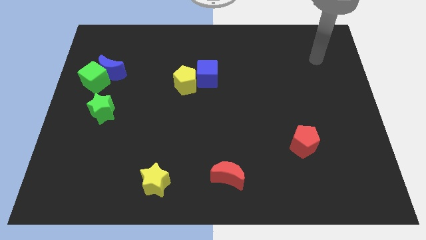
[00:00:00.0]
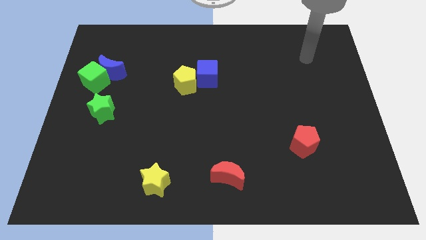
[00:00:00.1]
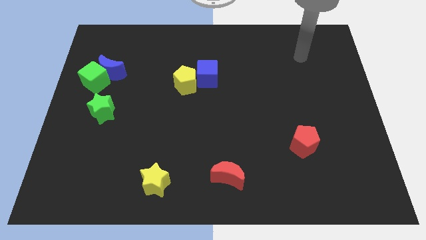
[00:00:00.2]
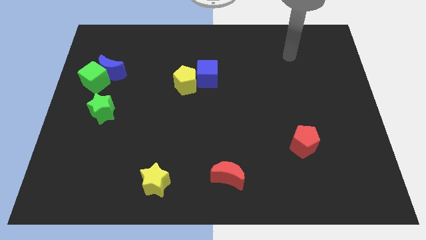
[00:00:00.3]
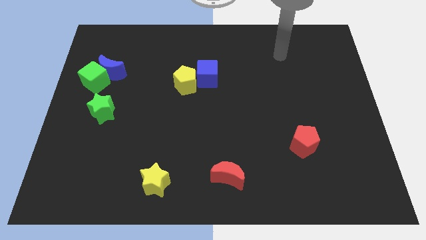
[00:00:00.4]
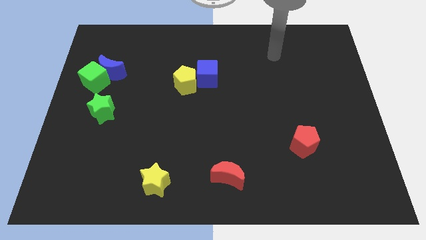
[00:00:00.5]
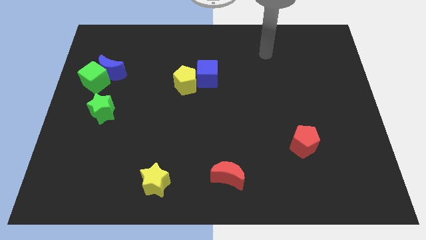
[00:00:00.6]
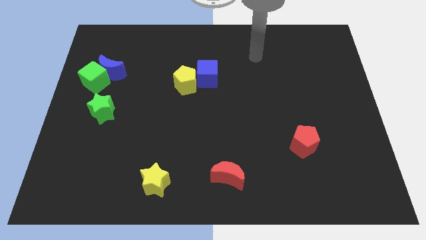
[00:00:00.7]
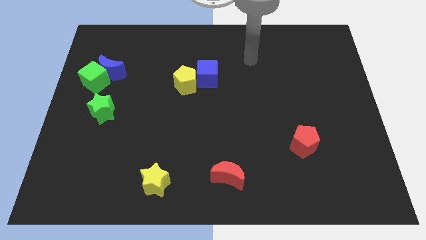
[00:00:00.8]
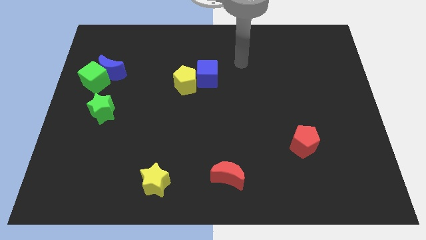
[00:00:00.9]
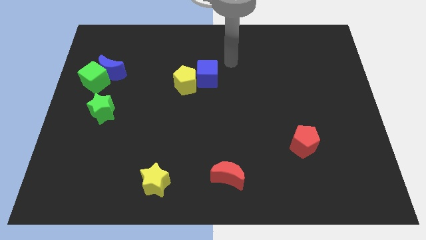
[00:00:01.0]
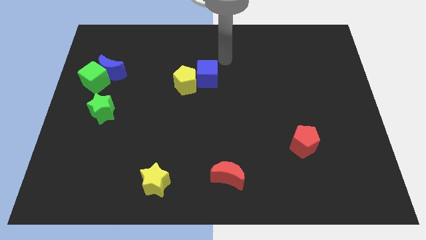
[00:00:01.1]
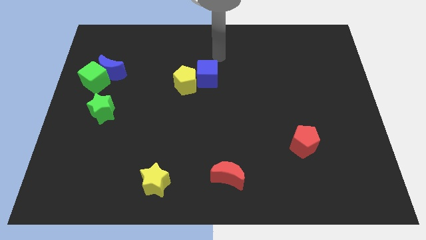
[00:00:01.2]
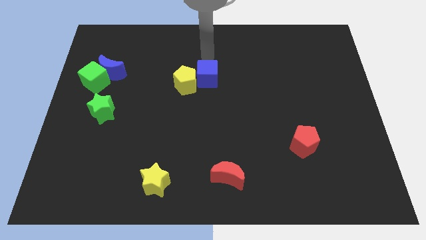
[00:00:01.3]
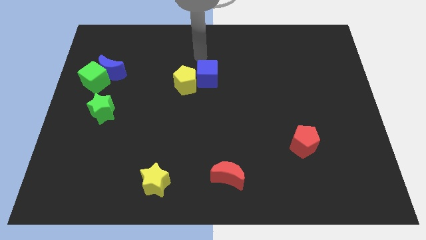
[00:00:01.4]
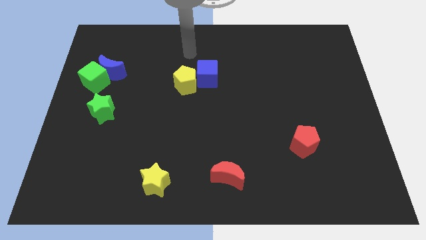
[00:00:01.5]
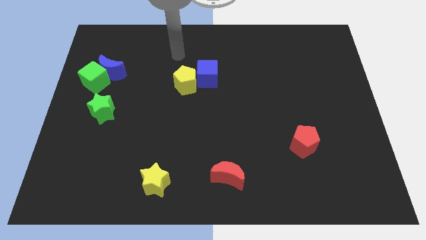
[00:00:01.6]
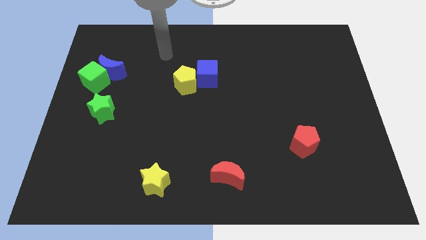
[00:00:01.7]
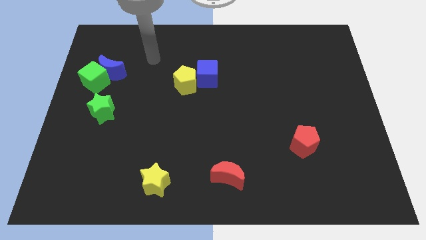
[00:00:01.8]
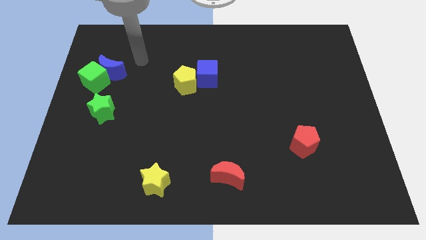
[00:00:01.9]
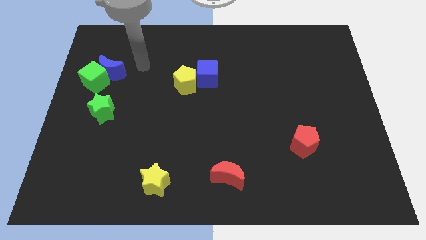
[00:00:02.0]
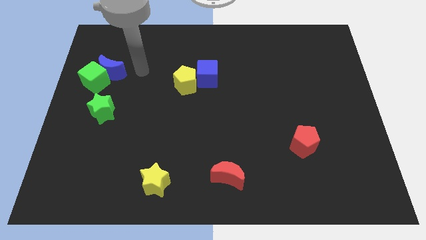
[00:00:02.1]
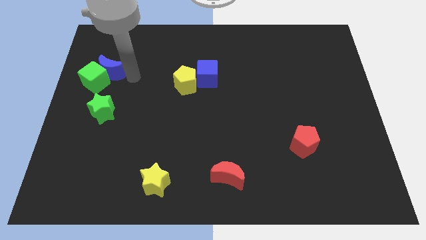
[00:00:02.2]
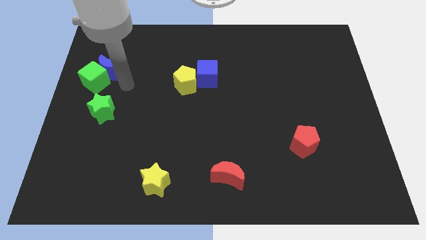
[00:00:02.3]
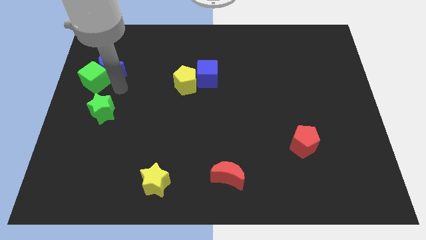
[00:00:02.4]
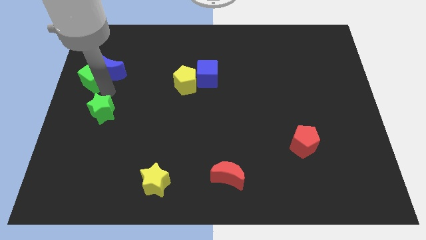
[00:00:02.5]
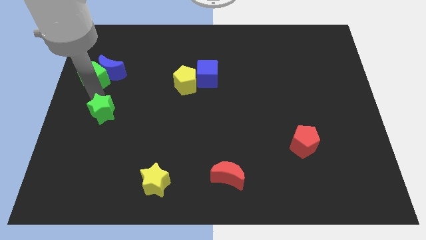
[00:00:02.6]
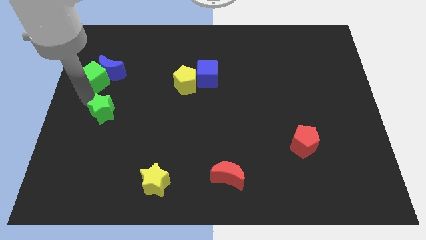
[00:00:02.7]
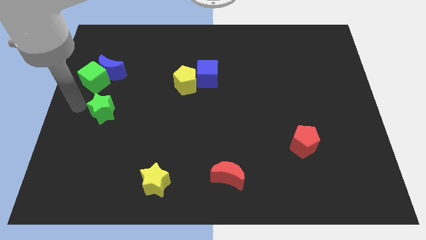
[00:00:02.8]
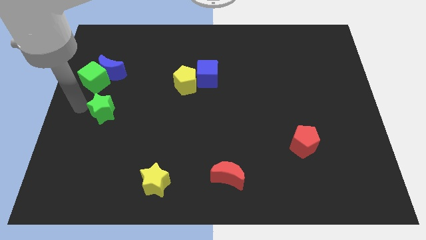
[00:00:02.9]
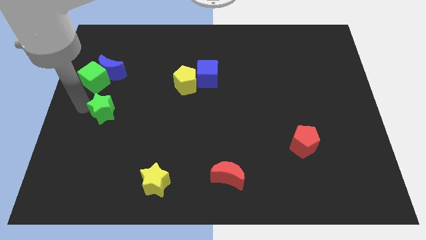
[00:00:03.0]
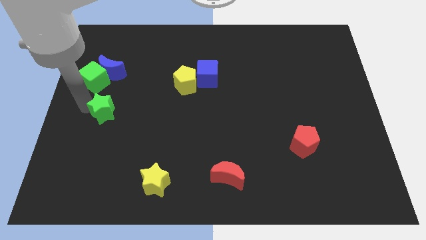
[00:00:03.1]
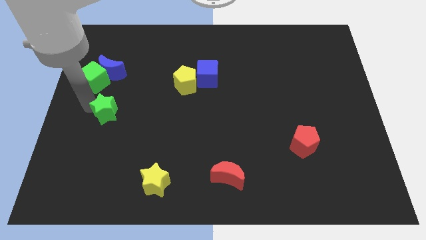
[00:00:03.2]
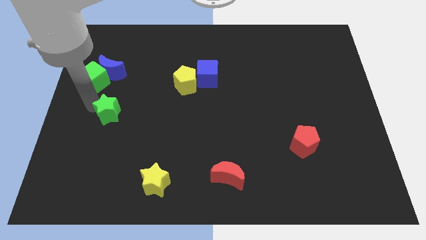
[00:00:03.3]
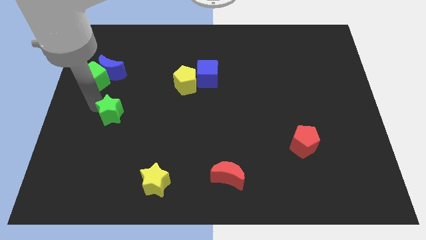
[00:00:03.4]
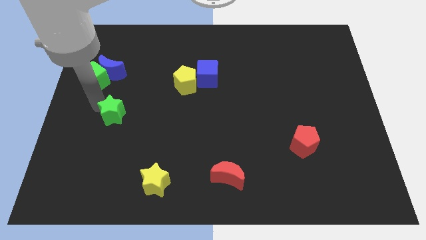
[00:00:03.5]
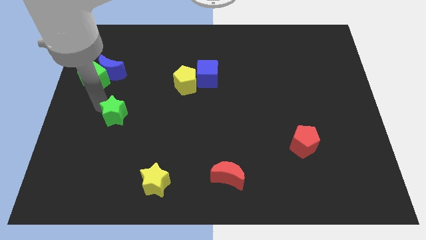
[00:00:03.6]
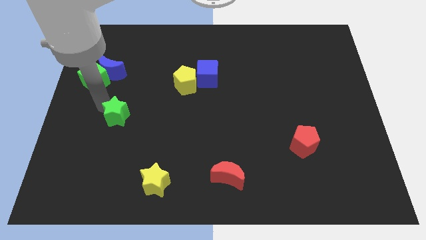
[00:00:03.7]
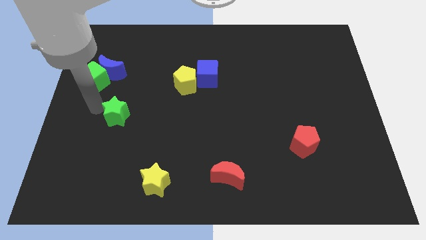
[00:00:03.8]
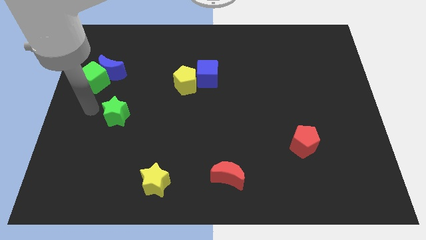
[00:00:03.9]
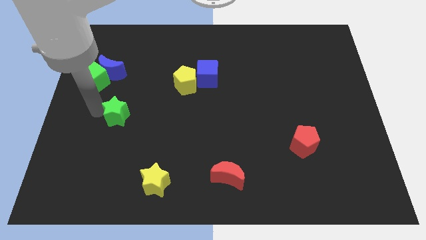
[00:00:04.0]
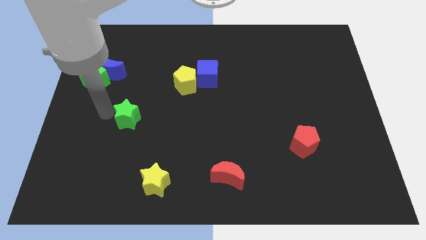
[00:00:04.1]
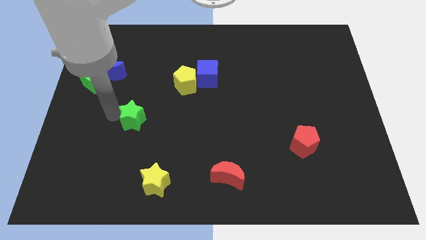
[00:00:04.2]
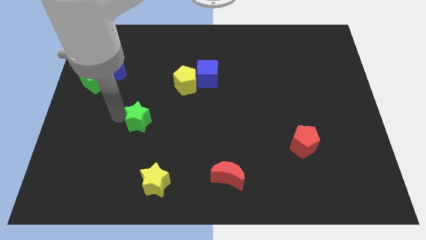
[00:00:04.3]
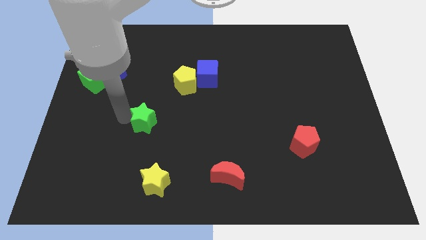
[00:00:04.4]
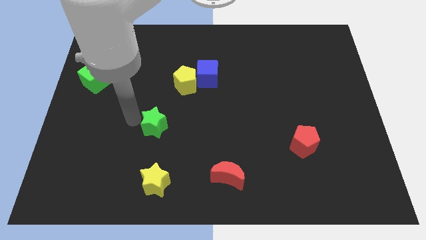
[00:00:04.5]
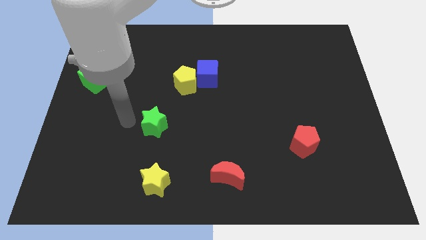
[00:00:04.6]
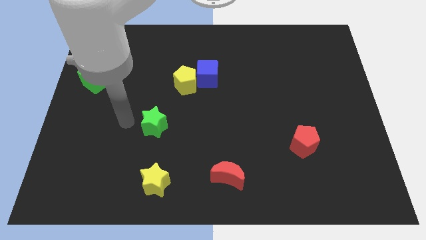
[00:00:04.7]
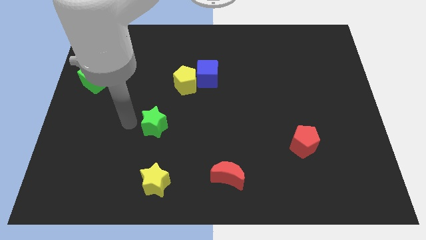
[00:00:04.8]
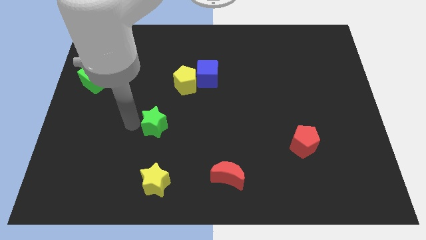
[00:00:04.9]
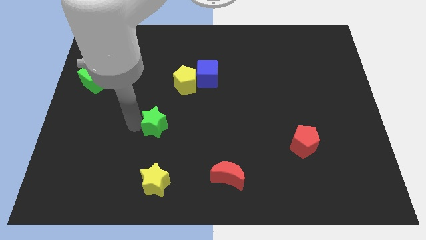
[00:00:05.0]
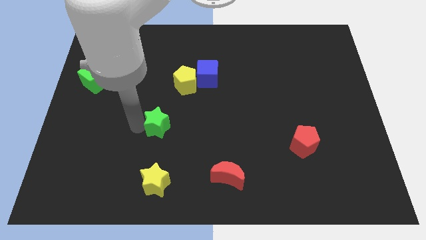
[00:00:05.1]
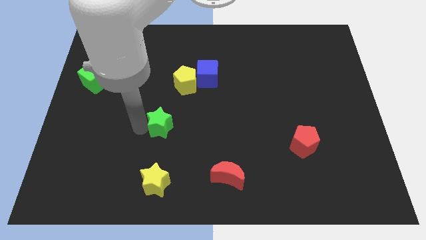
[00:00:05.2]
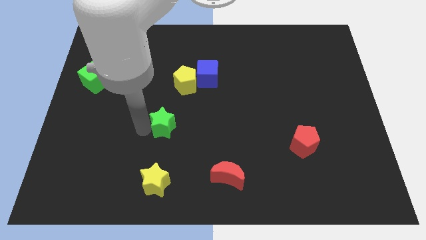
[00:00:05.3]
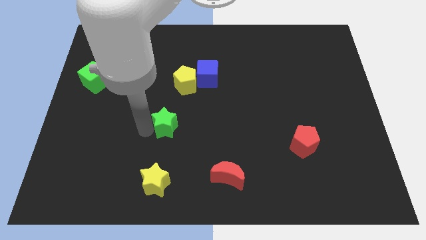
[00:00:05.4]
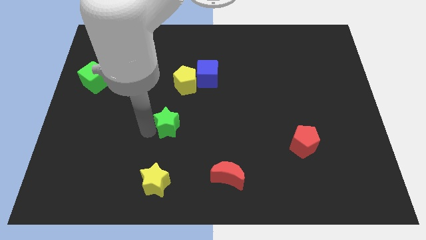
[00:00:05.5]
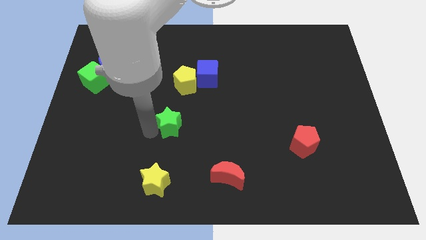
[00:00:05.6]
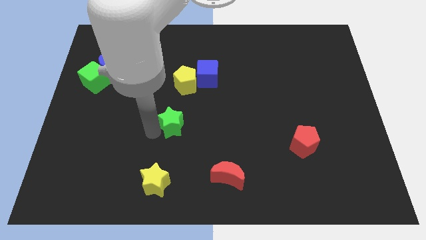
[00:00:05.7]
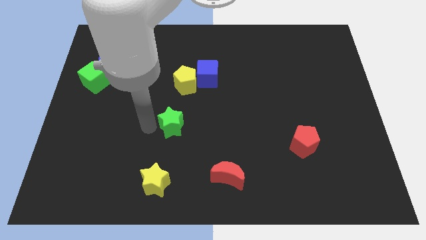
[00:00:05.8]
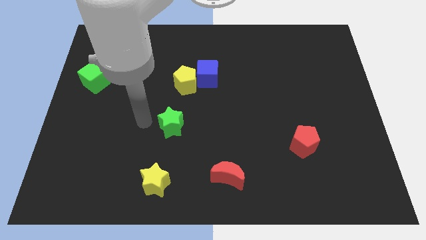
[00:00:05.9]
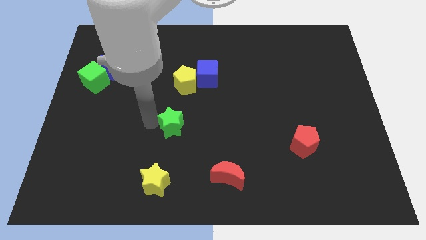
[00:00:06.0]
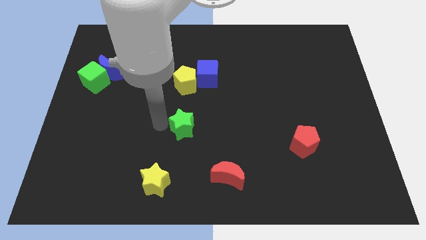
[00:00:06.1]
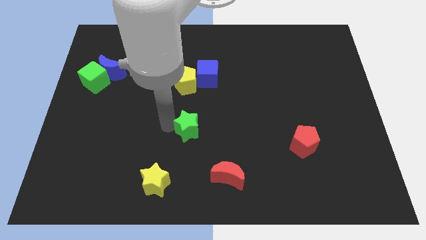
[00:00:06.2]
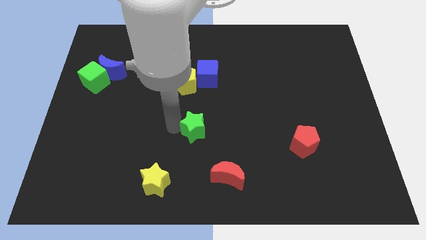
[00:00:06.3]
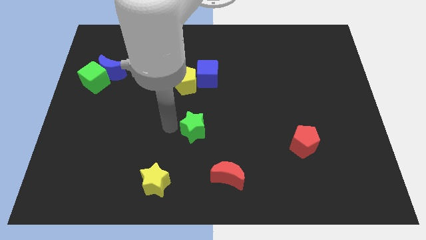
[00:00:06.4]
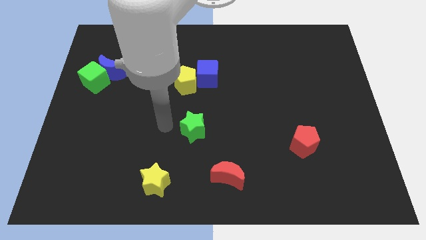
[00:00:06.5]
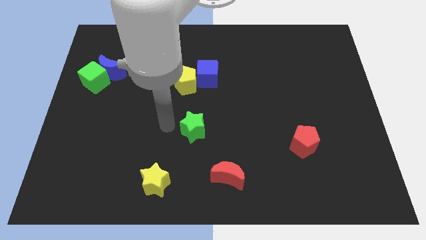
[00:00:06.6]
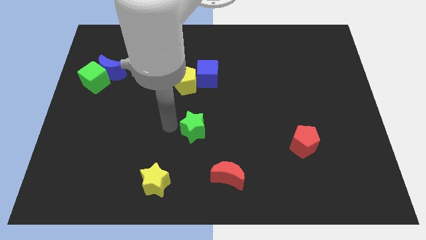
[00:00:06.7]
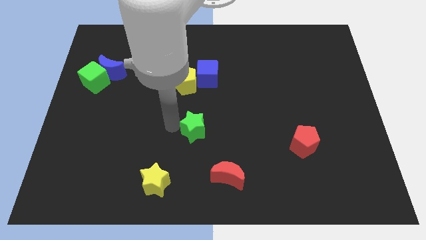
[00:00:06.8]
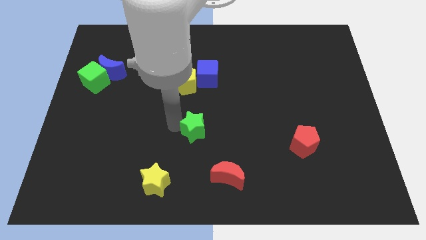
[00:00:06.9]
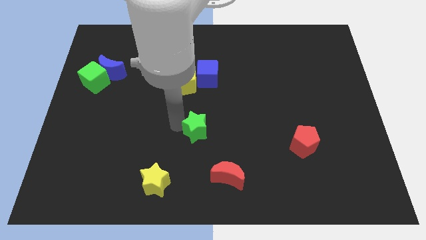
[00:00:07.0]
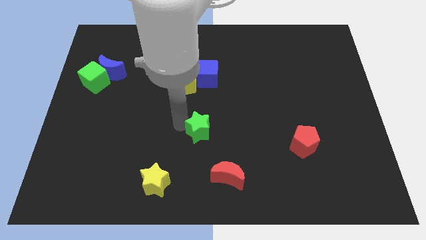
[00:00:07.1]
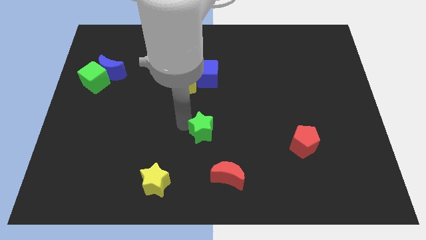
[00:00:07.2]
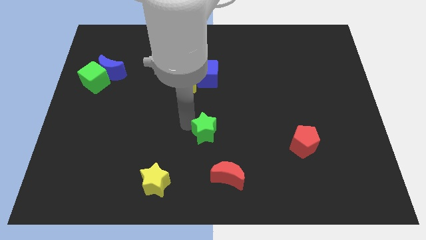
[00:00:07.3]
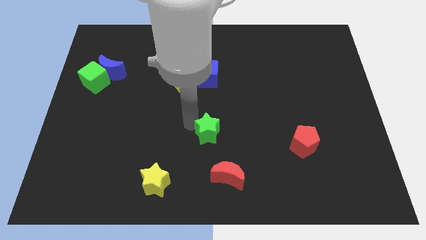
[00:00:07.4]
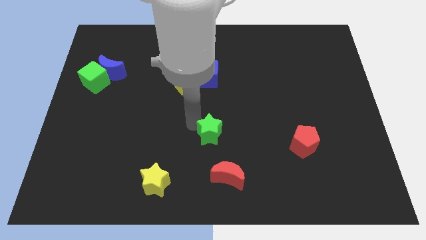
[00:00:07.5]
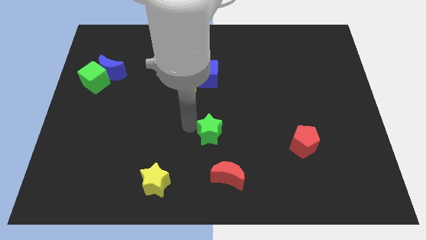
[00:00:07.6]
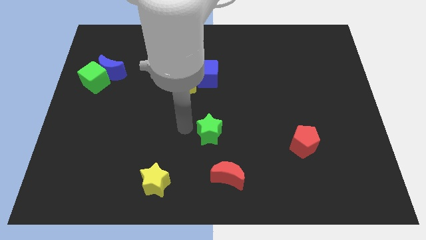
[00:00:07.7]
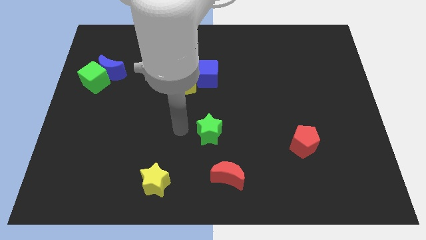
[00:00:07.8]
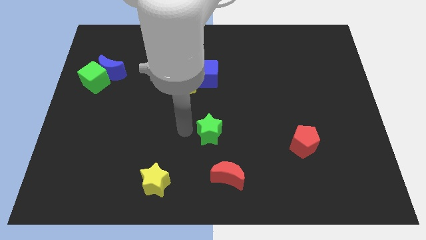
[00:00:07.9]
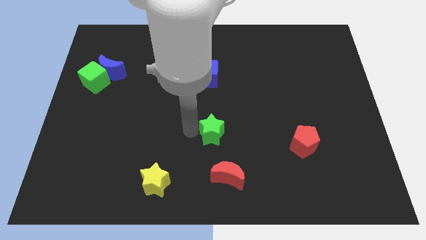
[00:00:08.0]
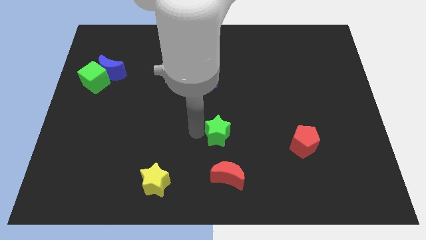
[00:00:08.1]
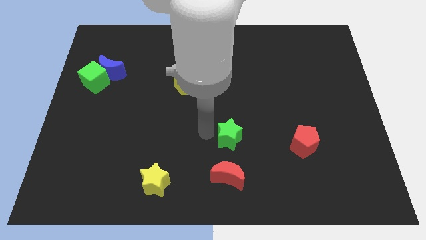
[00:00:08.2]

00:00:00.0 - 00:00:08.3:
move the green star just left of the red pentagon
